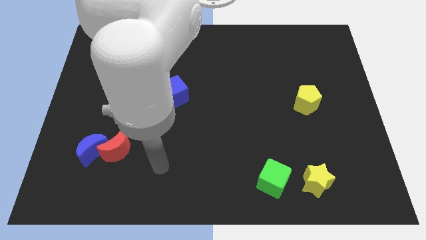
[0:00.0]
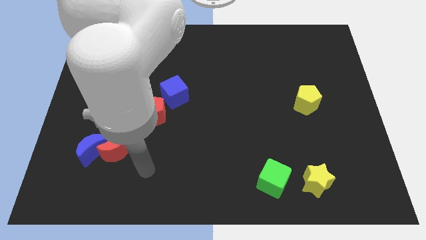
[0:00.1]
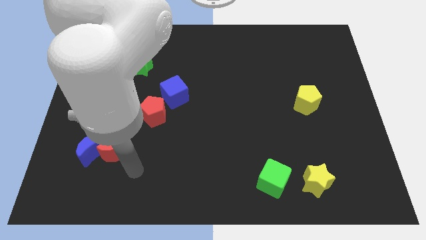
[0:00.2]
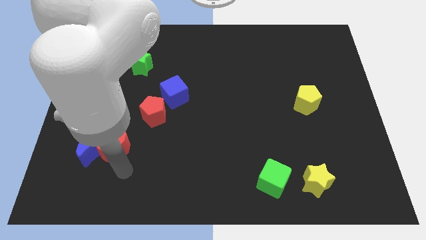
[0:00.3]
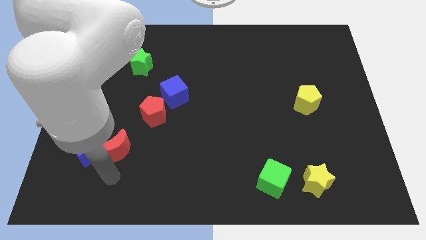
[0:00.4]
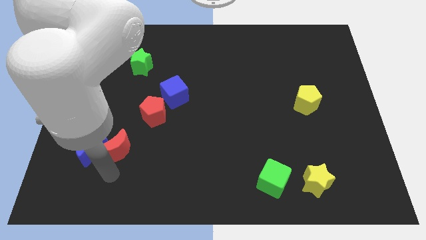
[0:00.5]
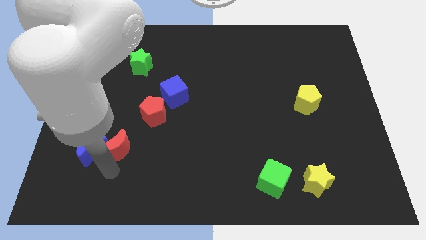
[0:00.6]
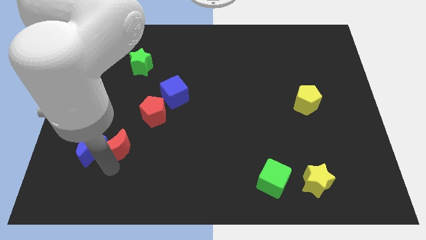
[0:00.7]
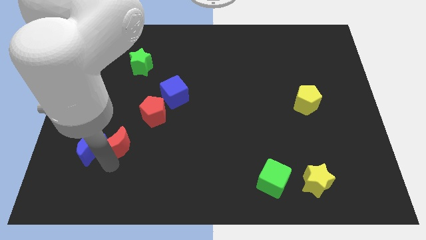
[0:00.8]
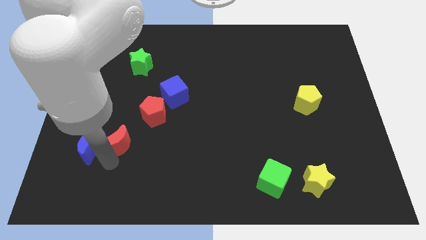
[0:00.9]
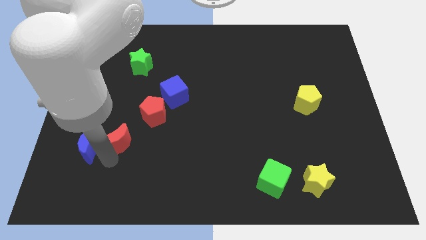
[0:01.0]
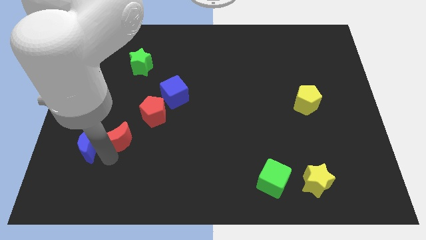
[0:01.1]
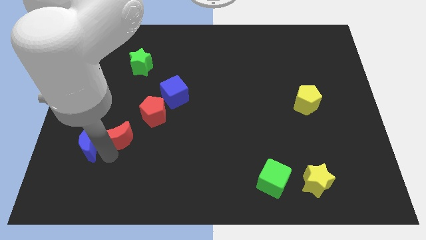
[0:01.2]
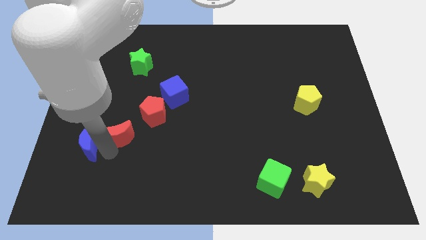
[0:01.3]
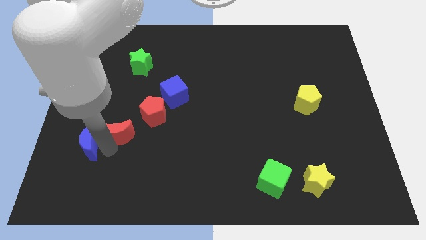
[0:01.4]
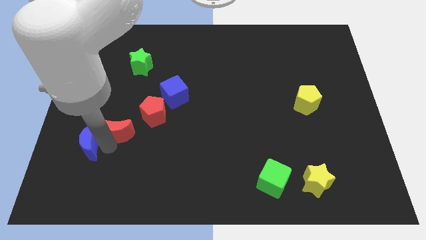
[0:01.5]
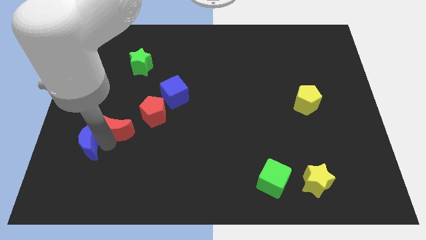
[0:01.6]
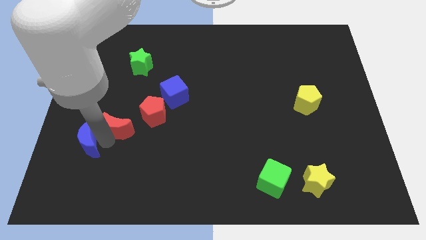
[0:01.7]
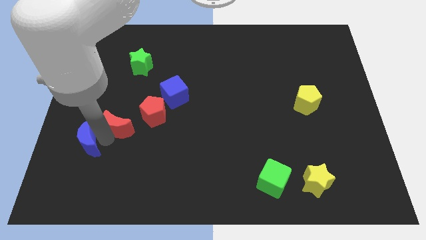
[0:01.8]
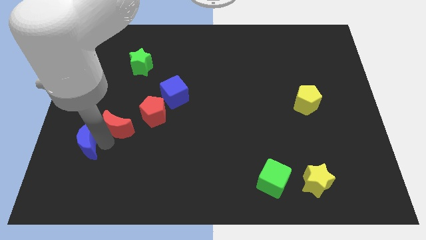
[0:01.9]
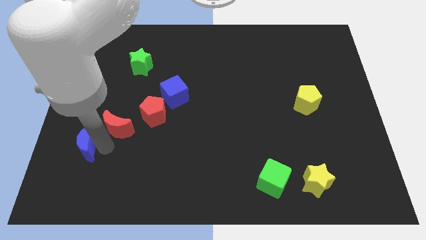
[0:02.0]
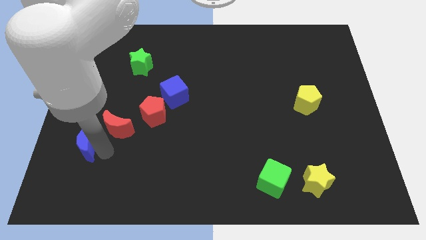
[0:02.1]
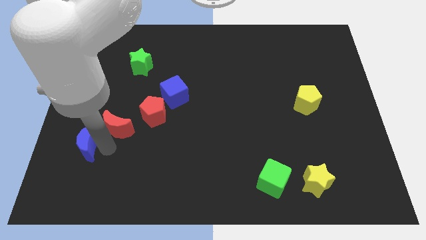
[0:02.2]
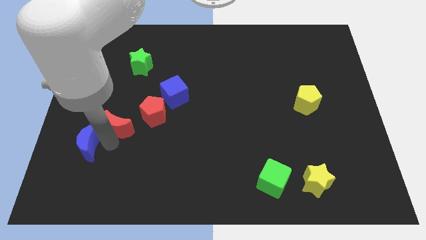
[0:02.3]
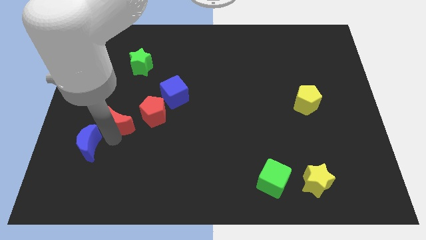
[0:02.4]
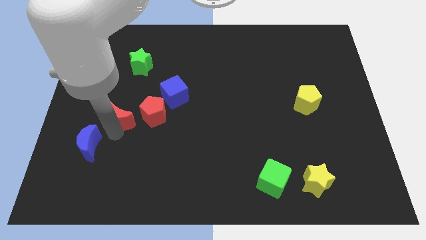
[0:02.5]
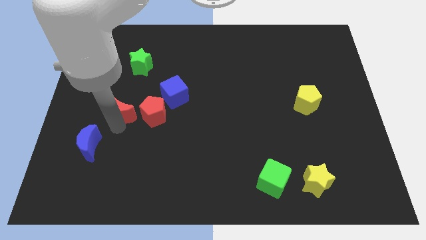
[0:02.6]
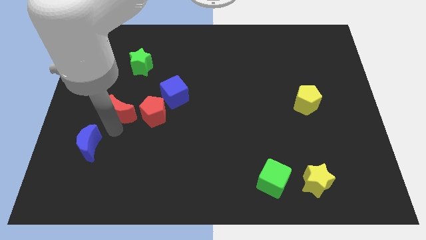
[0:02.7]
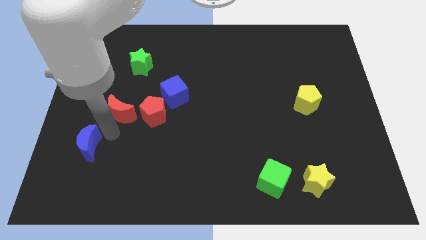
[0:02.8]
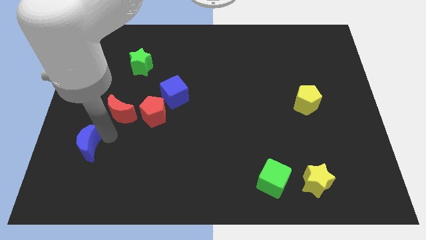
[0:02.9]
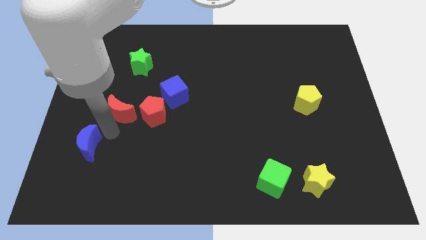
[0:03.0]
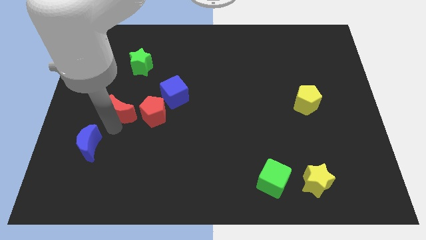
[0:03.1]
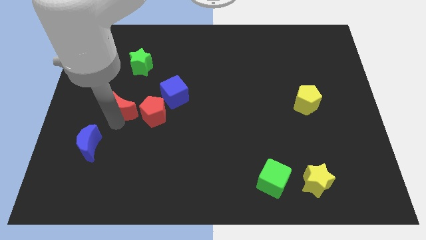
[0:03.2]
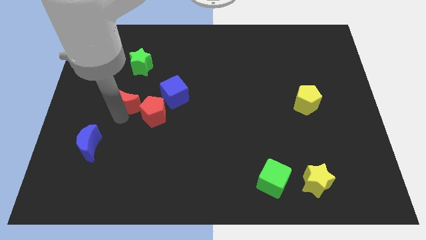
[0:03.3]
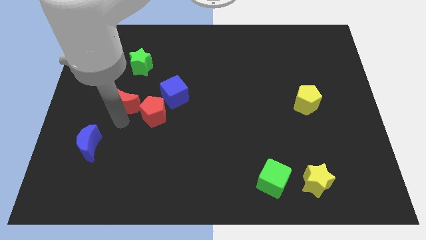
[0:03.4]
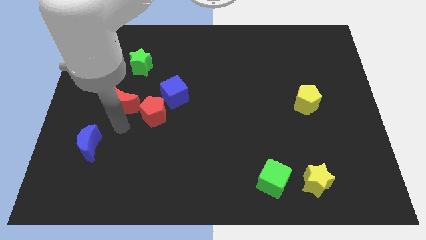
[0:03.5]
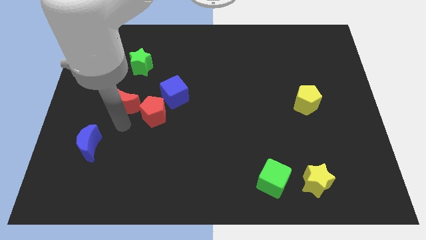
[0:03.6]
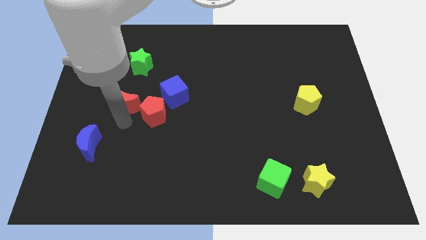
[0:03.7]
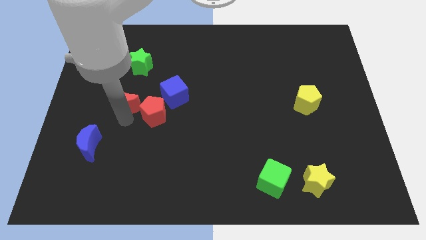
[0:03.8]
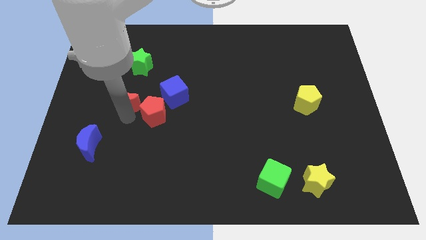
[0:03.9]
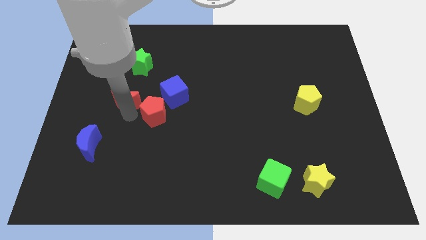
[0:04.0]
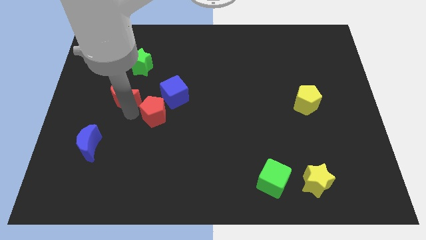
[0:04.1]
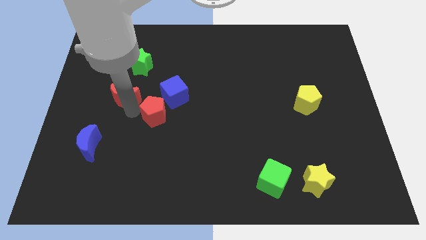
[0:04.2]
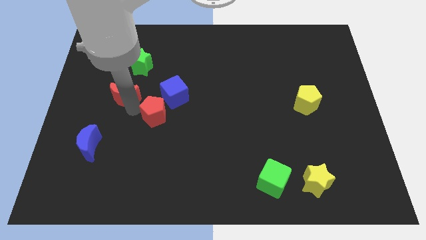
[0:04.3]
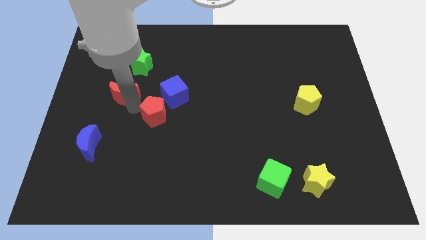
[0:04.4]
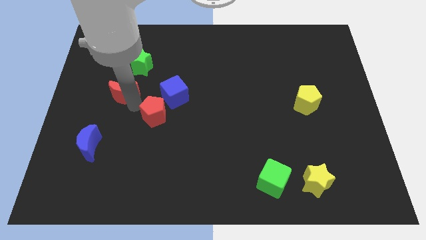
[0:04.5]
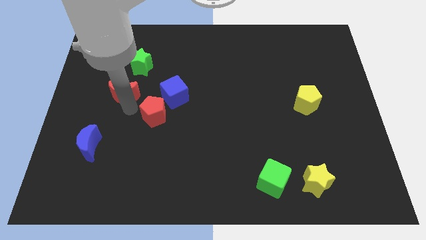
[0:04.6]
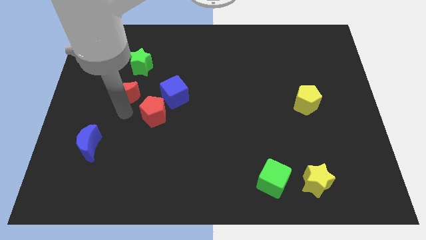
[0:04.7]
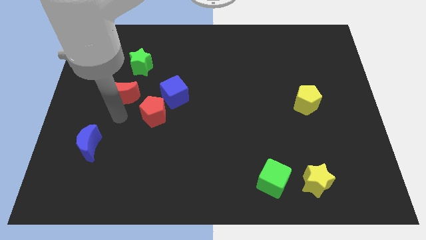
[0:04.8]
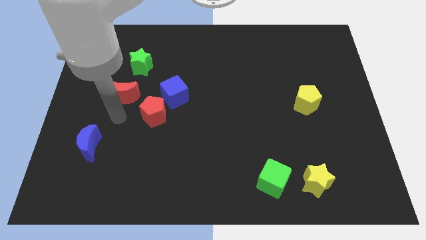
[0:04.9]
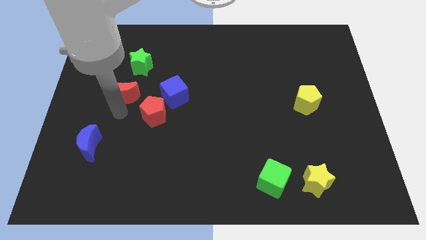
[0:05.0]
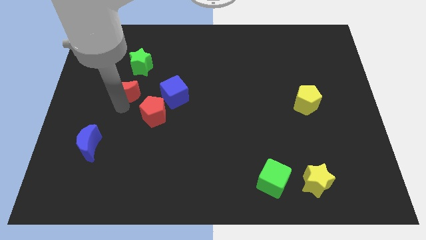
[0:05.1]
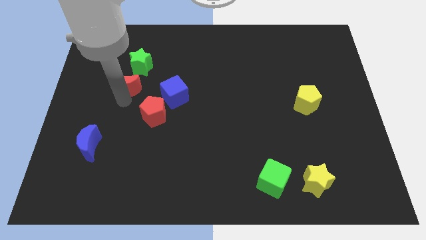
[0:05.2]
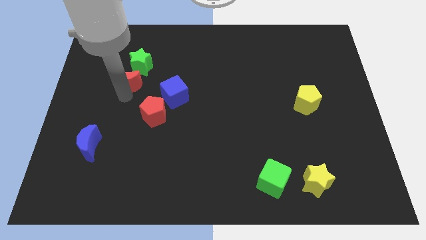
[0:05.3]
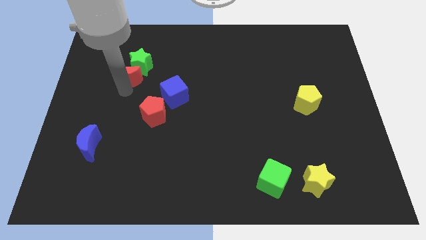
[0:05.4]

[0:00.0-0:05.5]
put the red moon to the green star

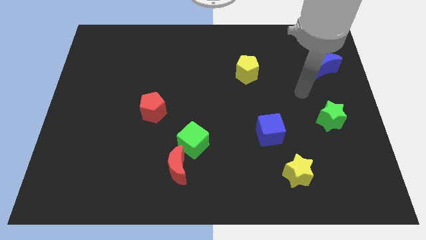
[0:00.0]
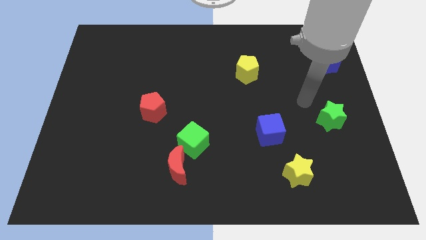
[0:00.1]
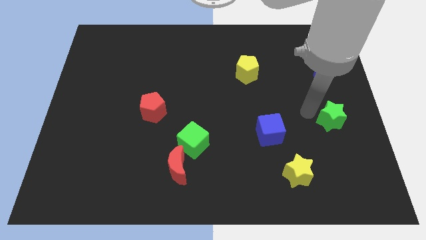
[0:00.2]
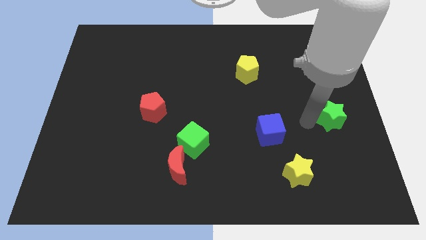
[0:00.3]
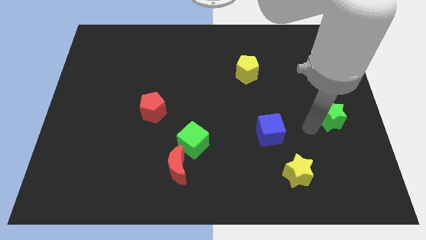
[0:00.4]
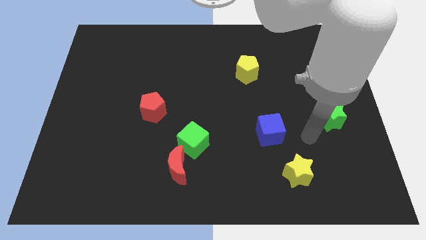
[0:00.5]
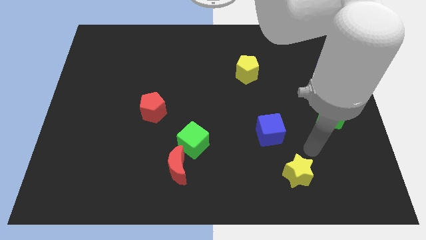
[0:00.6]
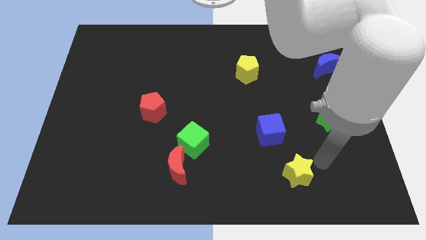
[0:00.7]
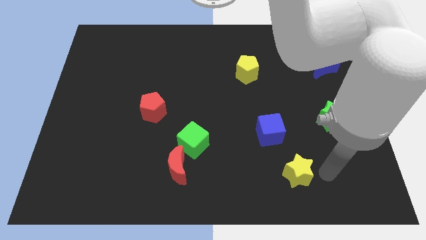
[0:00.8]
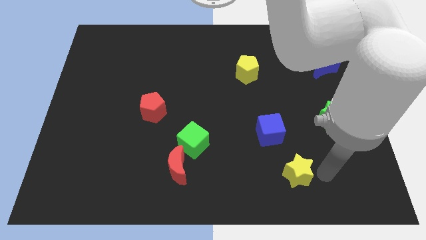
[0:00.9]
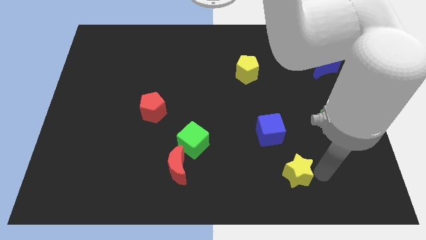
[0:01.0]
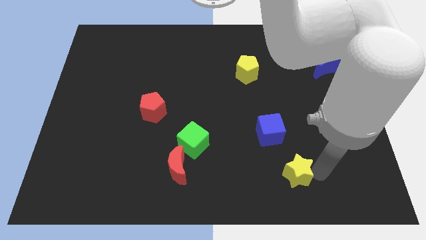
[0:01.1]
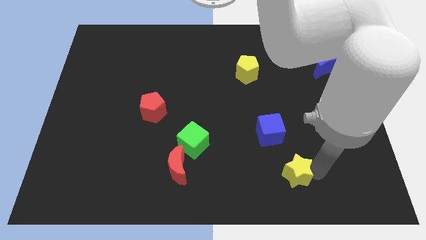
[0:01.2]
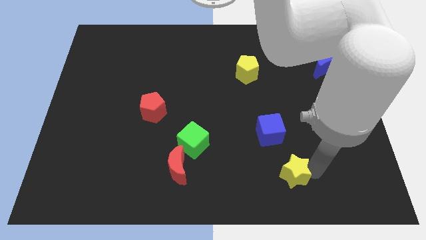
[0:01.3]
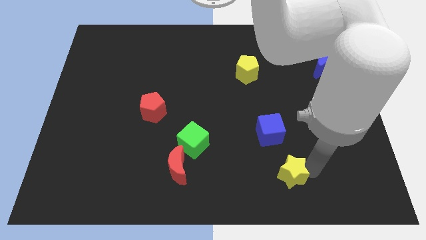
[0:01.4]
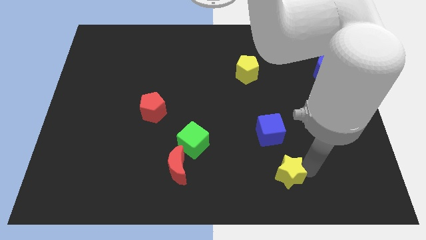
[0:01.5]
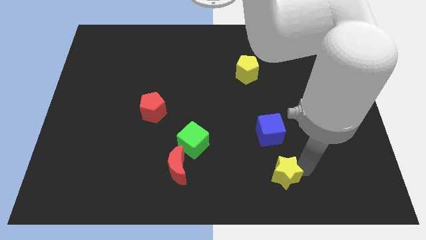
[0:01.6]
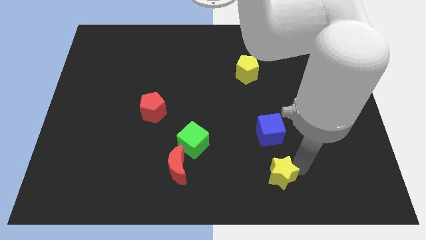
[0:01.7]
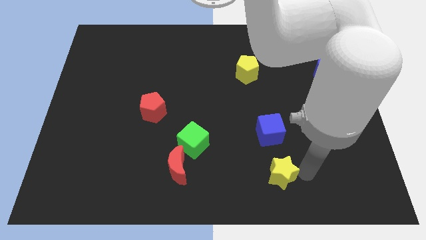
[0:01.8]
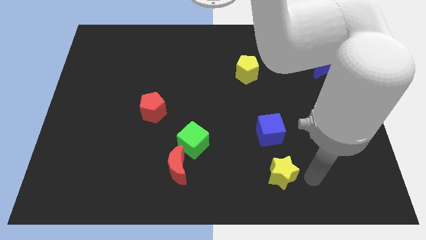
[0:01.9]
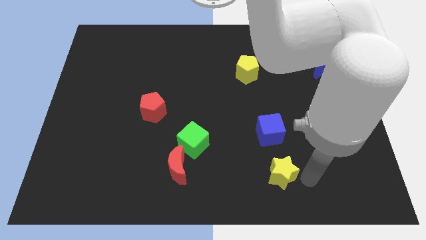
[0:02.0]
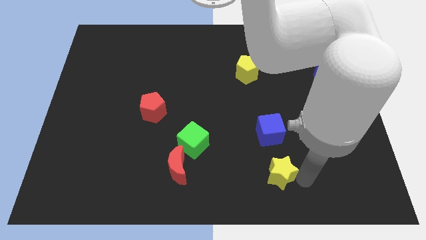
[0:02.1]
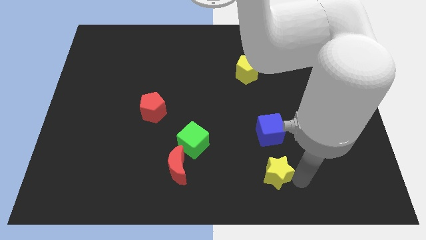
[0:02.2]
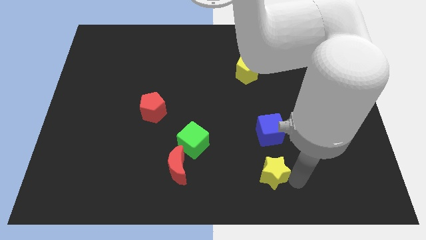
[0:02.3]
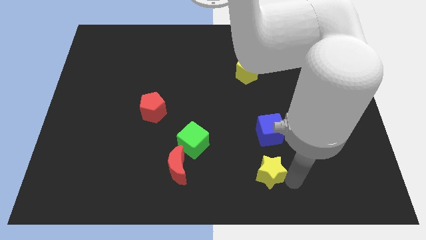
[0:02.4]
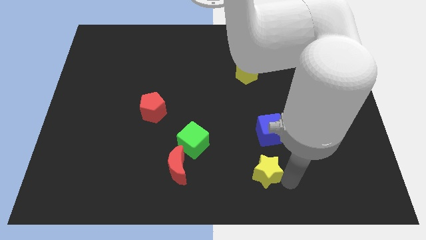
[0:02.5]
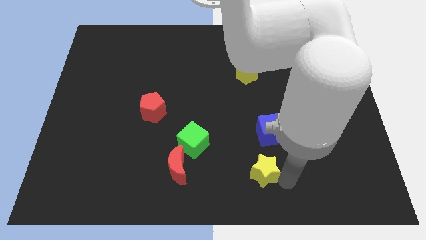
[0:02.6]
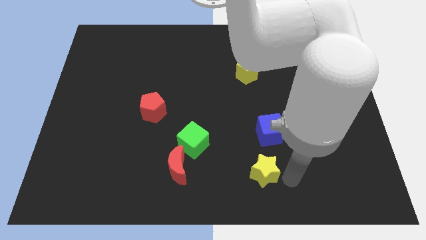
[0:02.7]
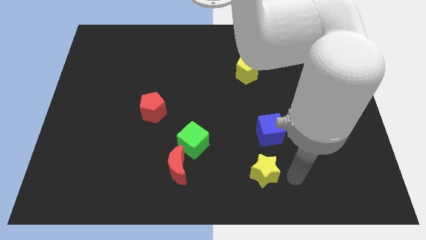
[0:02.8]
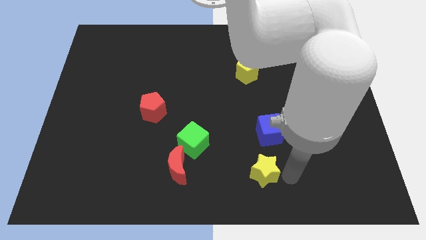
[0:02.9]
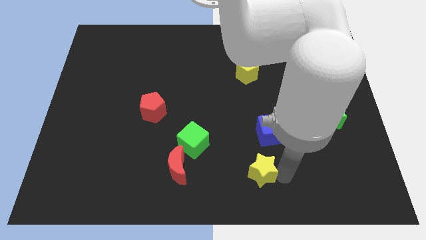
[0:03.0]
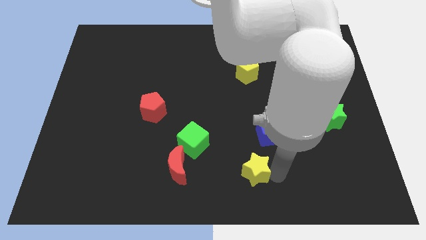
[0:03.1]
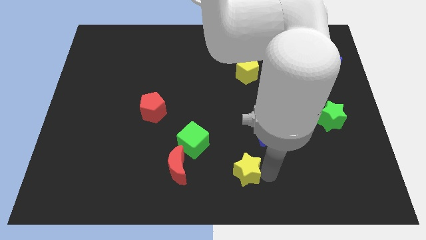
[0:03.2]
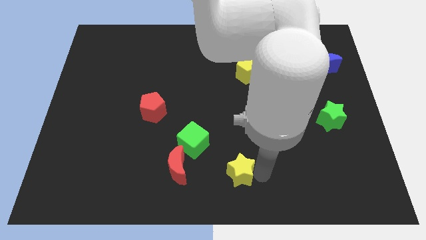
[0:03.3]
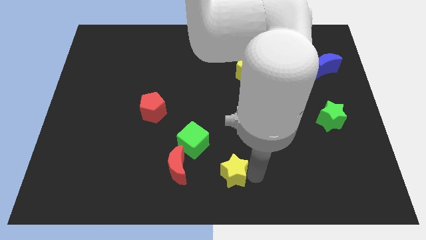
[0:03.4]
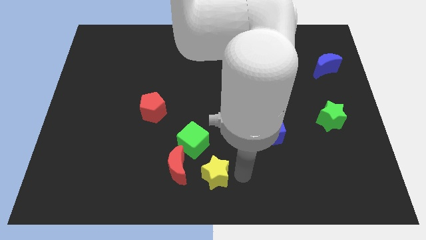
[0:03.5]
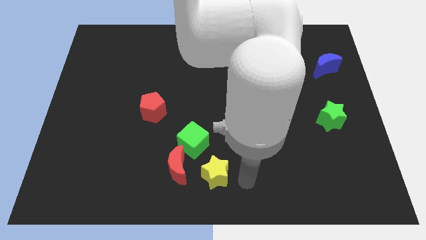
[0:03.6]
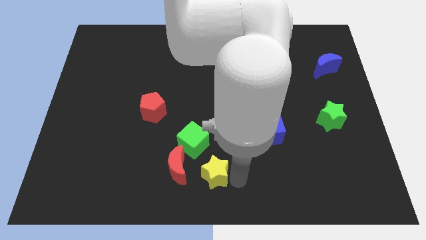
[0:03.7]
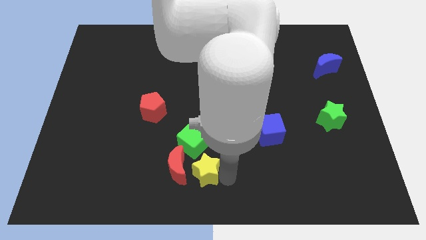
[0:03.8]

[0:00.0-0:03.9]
put the yellow star next to the red moon
